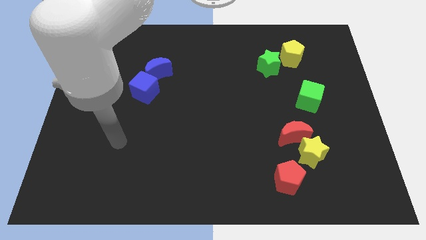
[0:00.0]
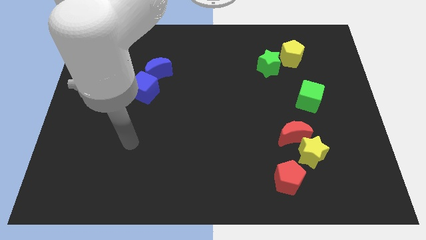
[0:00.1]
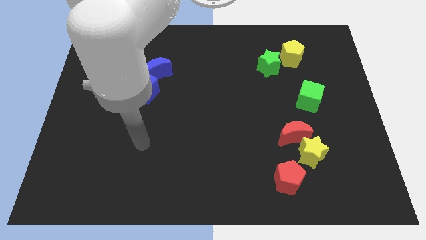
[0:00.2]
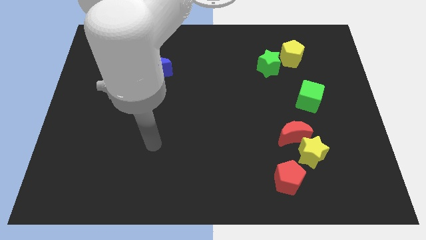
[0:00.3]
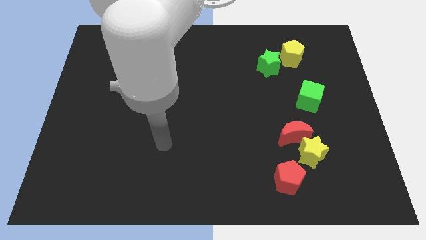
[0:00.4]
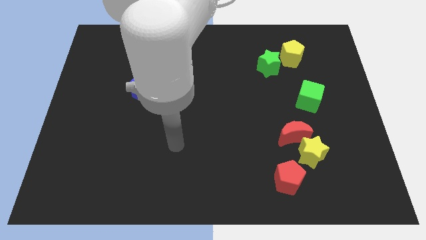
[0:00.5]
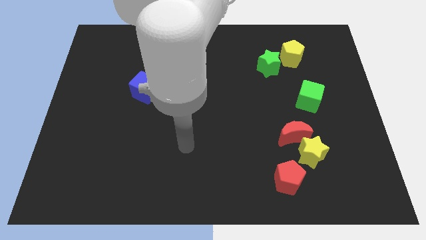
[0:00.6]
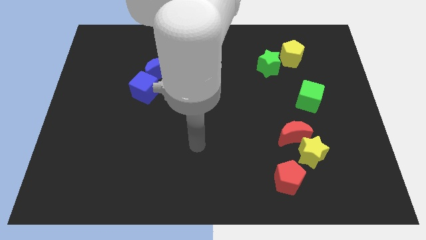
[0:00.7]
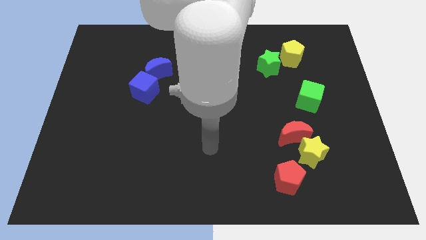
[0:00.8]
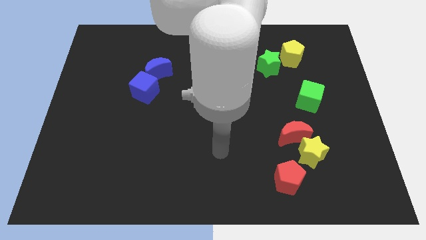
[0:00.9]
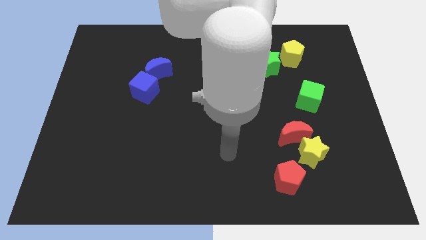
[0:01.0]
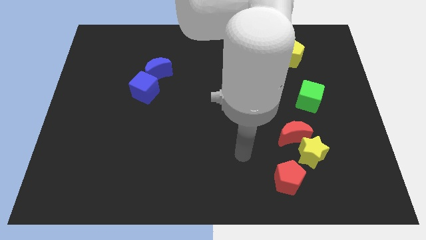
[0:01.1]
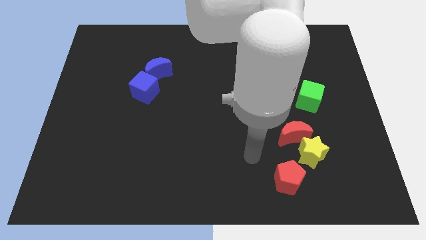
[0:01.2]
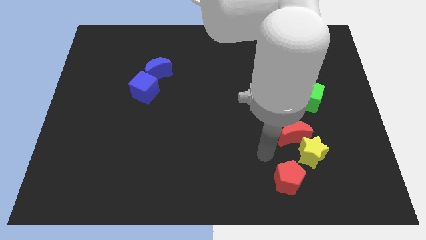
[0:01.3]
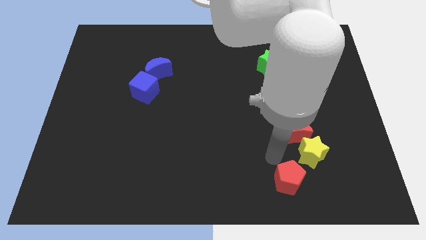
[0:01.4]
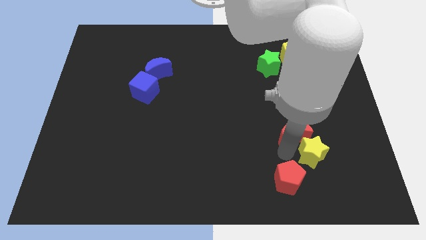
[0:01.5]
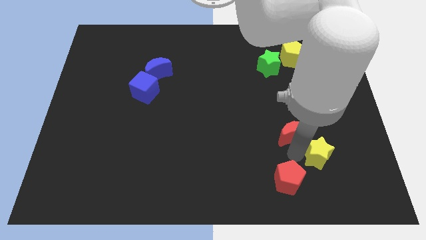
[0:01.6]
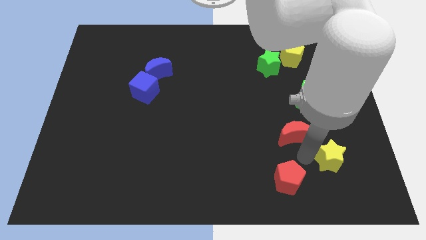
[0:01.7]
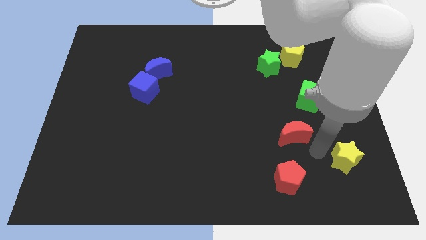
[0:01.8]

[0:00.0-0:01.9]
separate the red moon from the yellow star

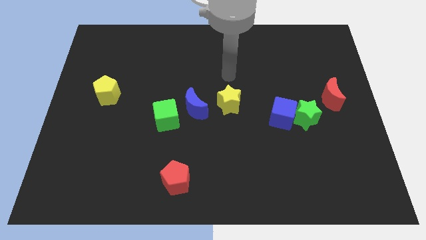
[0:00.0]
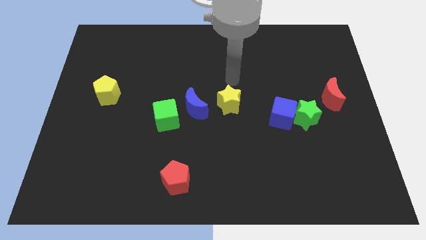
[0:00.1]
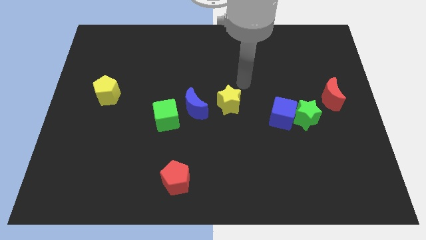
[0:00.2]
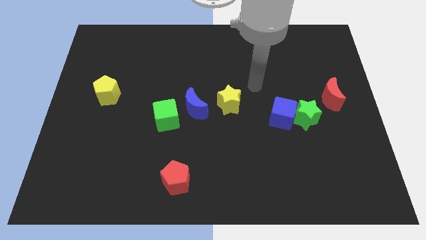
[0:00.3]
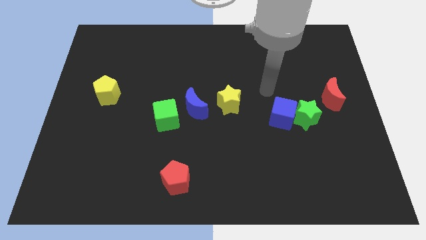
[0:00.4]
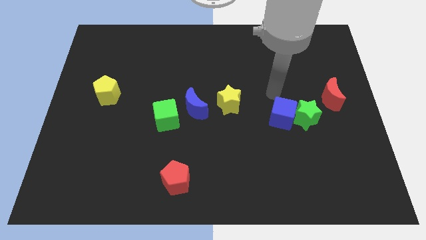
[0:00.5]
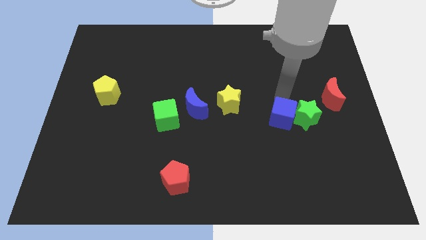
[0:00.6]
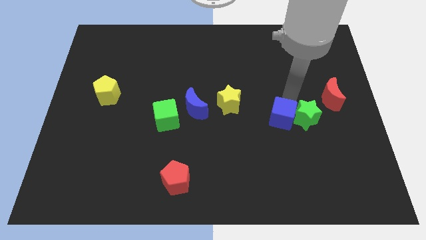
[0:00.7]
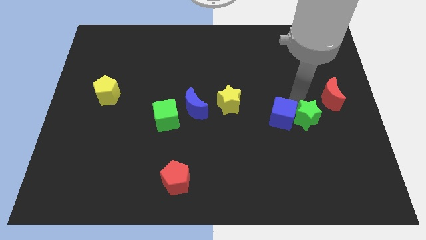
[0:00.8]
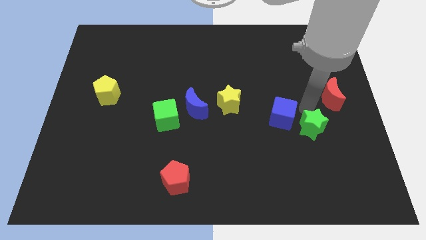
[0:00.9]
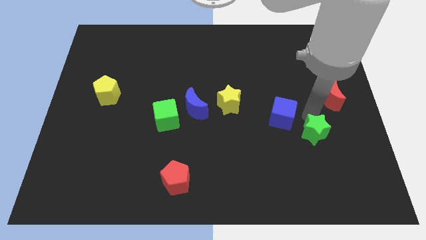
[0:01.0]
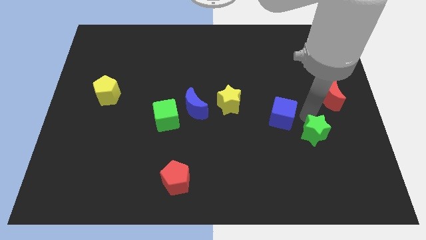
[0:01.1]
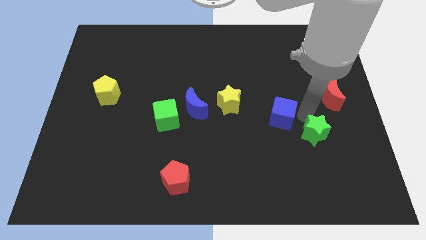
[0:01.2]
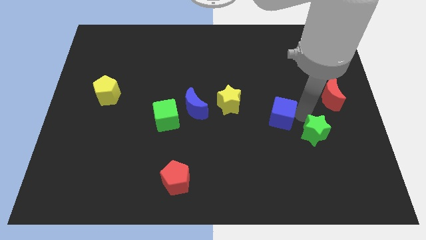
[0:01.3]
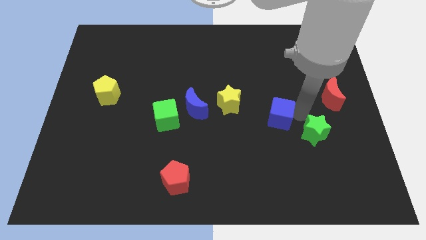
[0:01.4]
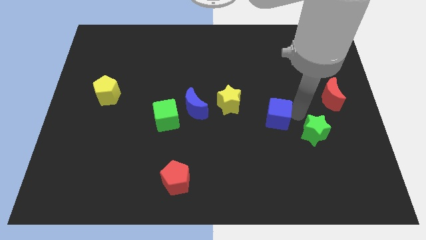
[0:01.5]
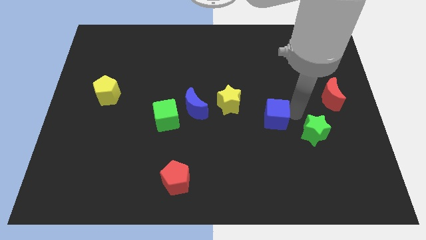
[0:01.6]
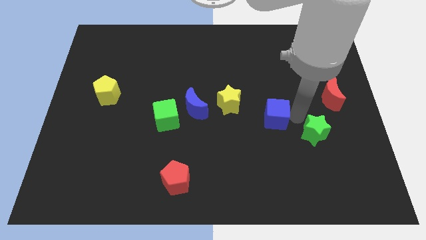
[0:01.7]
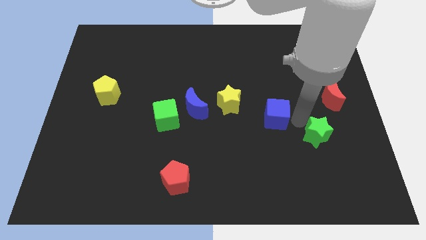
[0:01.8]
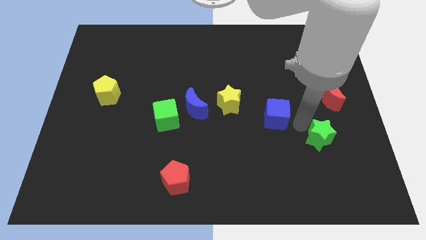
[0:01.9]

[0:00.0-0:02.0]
pull the blue cube apart from the green star

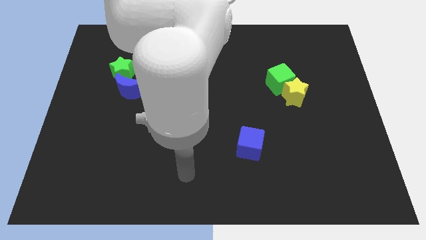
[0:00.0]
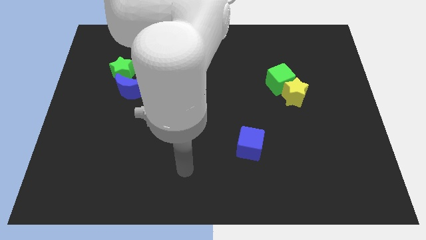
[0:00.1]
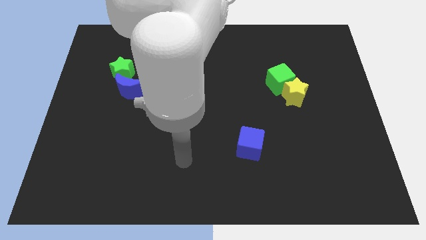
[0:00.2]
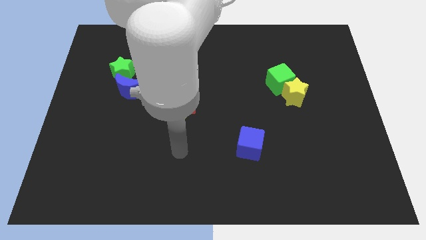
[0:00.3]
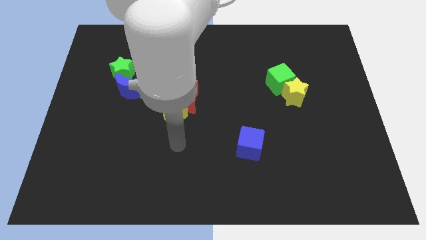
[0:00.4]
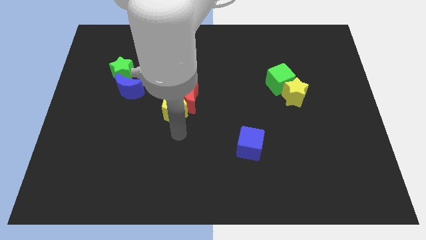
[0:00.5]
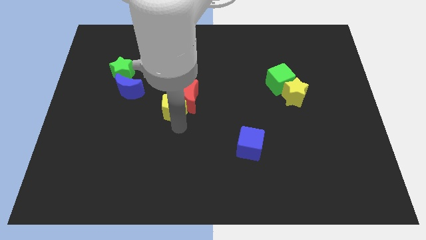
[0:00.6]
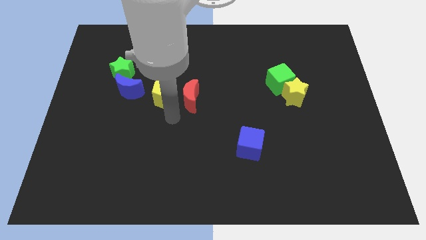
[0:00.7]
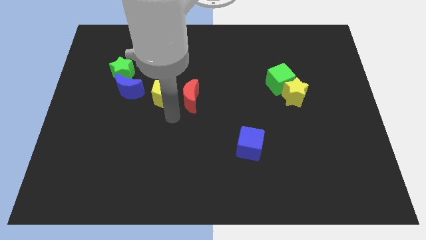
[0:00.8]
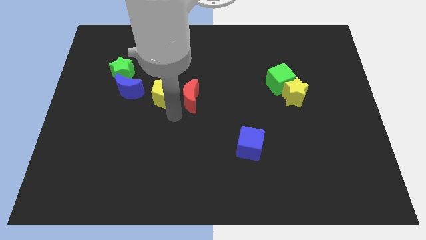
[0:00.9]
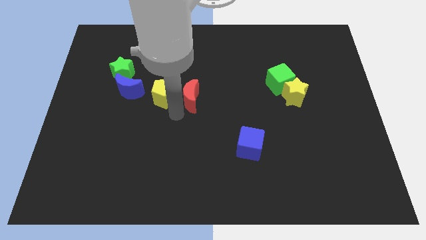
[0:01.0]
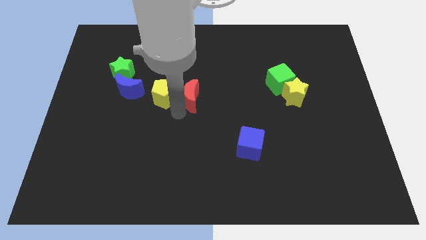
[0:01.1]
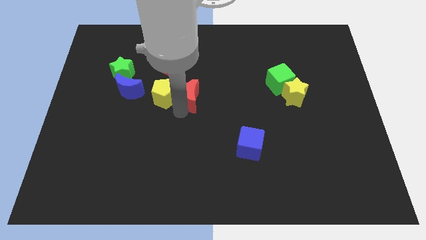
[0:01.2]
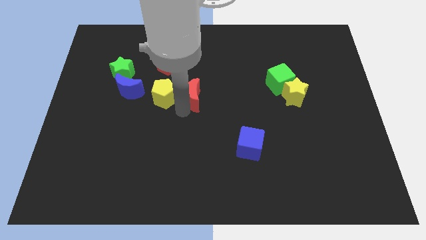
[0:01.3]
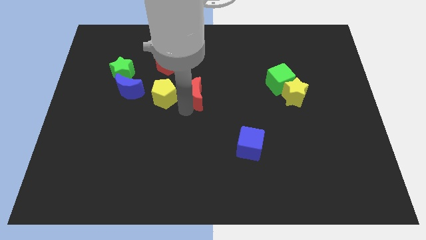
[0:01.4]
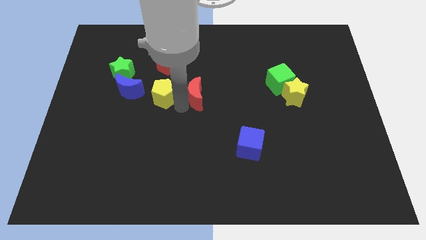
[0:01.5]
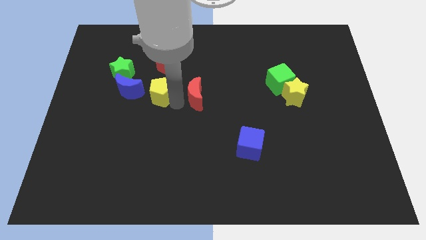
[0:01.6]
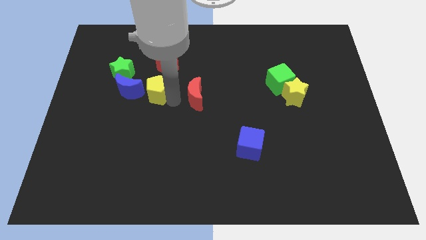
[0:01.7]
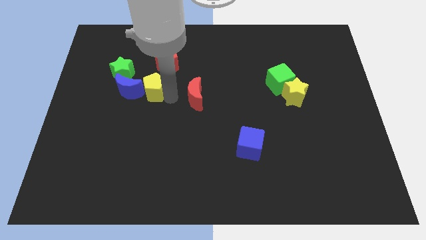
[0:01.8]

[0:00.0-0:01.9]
move the red moon away from the yellow pentagon

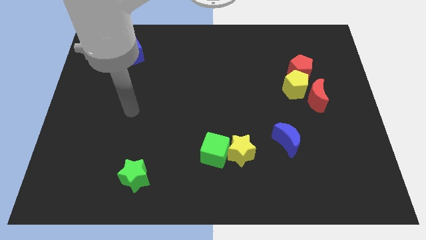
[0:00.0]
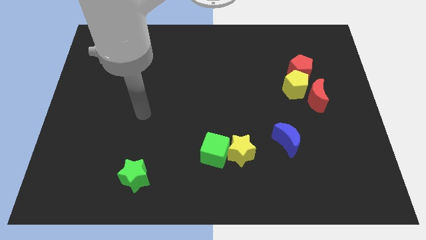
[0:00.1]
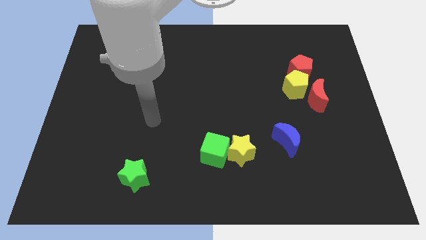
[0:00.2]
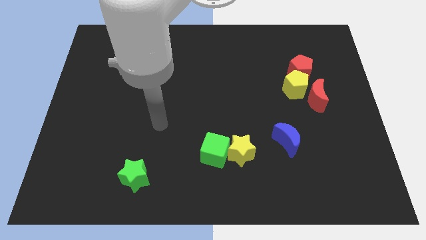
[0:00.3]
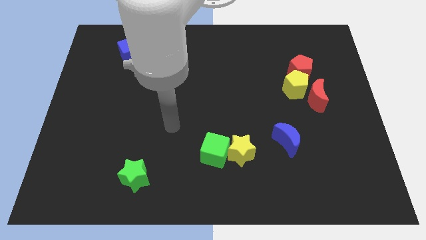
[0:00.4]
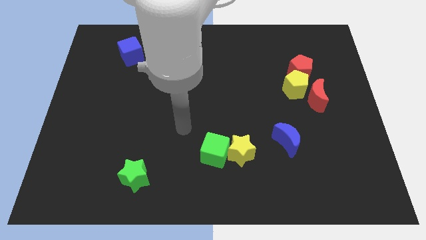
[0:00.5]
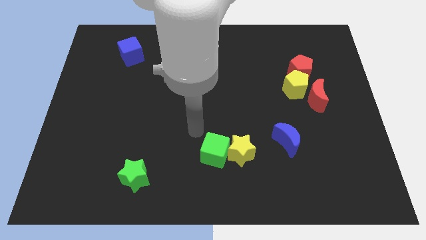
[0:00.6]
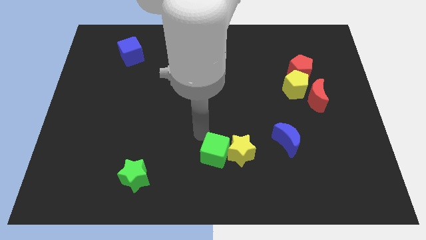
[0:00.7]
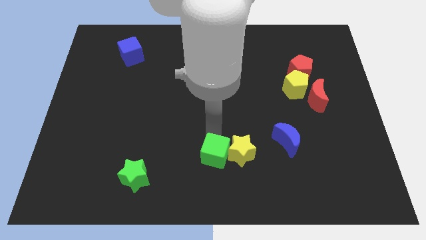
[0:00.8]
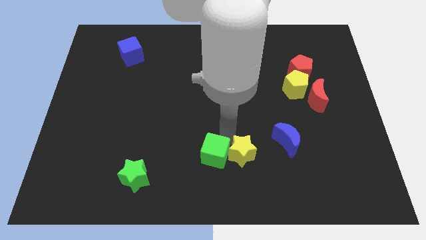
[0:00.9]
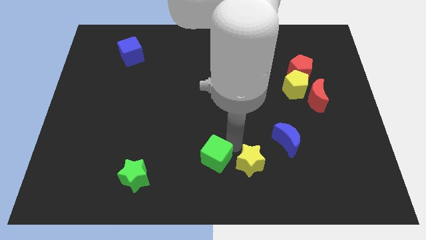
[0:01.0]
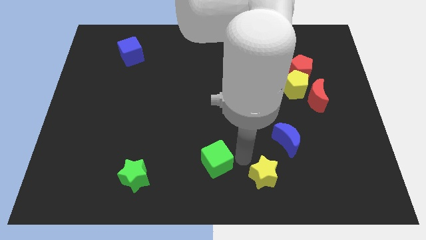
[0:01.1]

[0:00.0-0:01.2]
move the green cube away from the yellow star

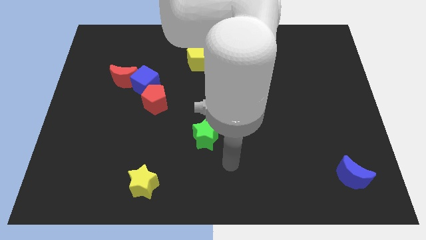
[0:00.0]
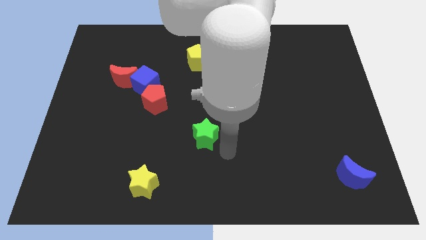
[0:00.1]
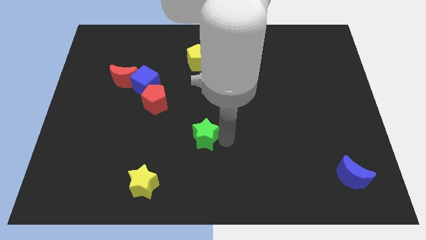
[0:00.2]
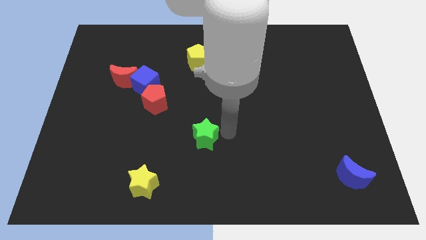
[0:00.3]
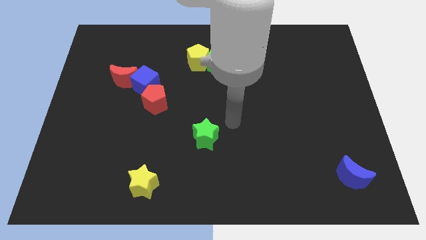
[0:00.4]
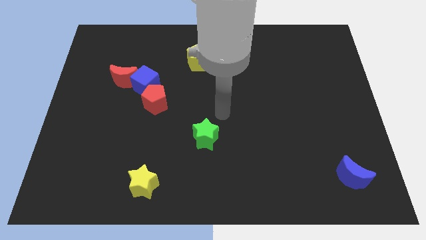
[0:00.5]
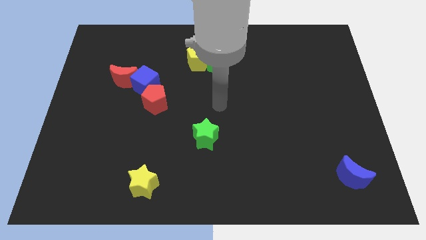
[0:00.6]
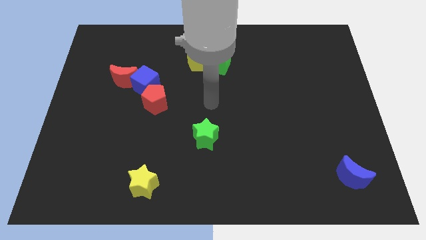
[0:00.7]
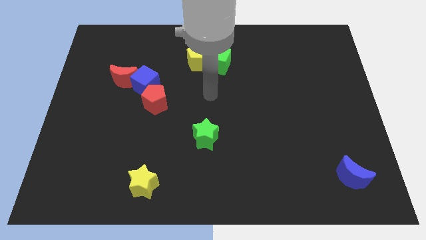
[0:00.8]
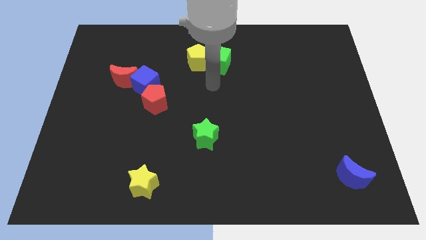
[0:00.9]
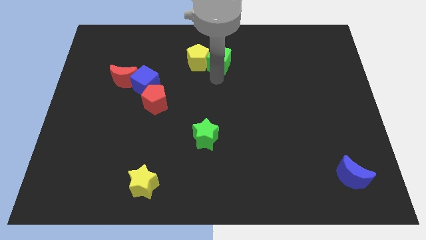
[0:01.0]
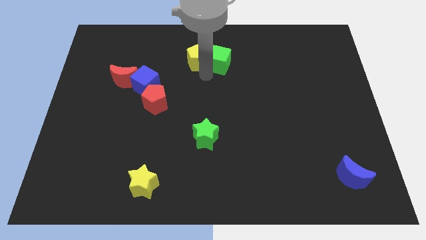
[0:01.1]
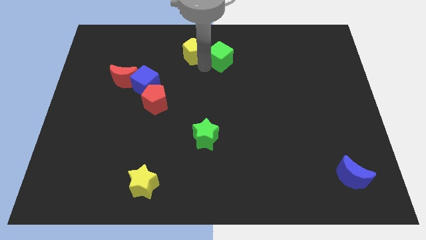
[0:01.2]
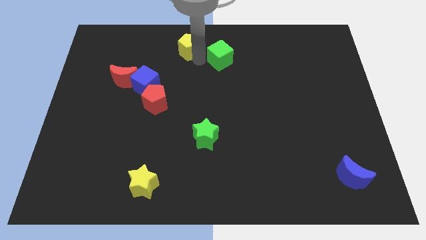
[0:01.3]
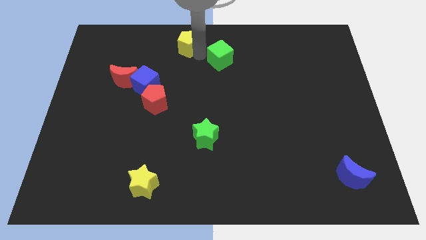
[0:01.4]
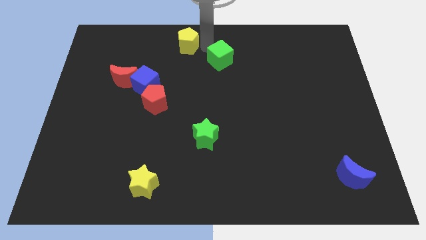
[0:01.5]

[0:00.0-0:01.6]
separate the green cube from the yellow pentagon

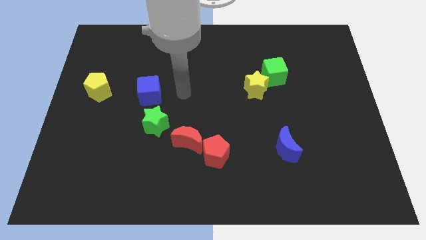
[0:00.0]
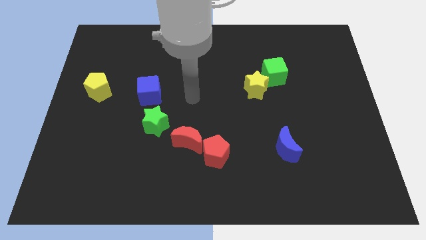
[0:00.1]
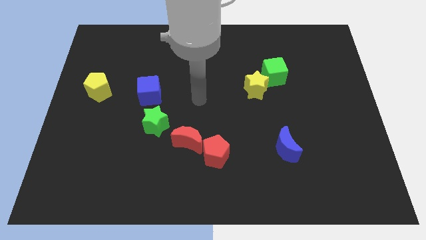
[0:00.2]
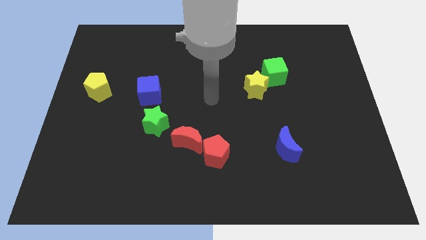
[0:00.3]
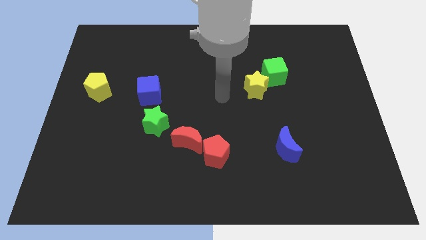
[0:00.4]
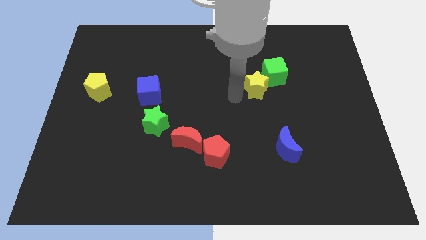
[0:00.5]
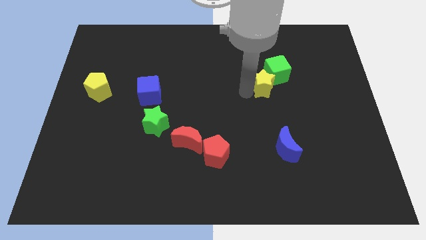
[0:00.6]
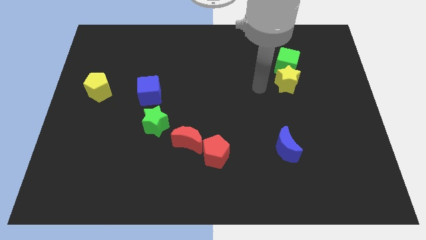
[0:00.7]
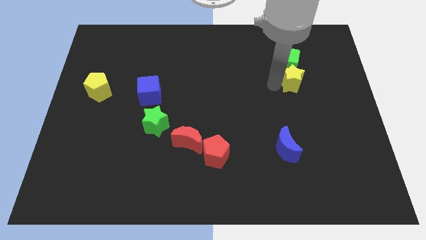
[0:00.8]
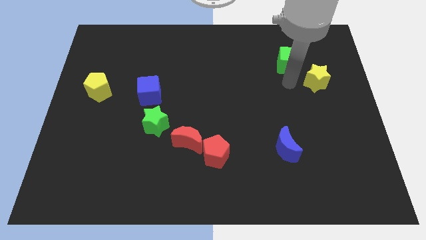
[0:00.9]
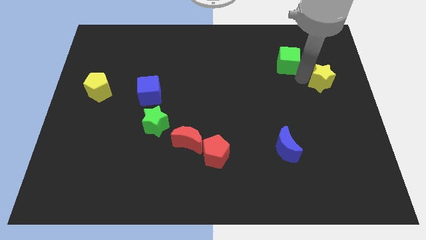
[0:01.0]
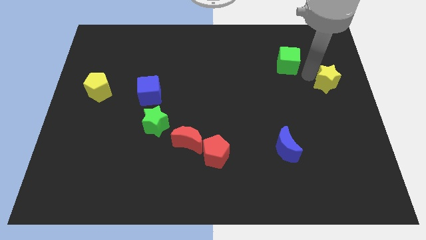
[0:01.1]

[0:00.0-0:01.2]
separate the green cube from the yellow star